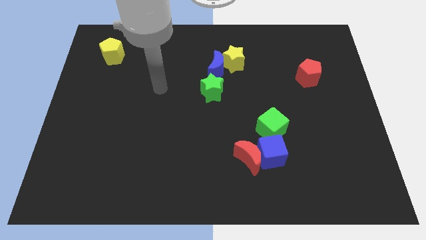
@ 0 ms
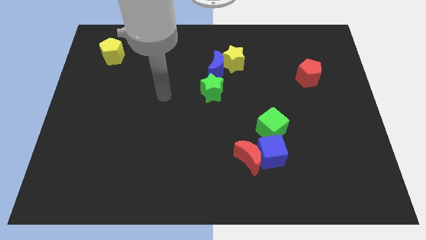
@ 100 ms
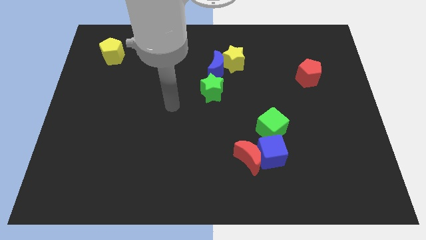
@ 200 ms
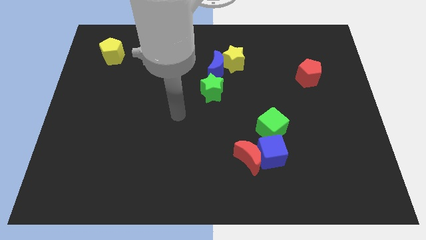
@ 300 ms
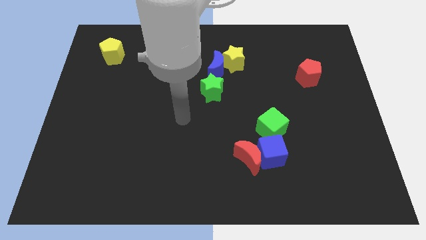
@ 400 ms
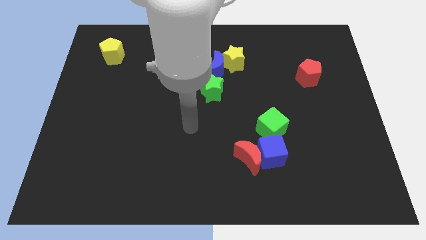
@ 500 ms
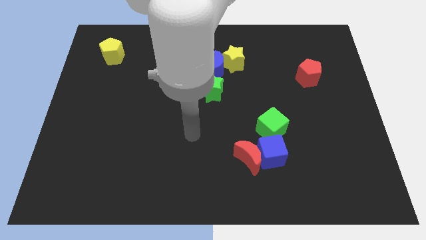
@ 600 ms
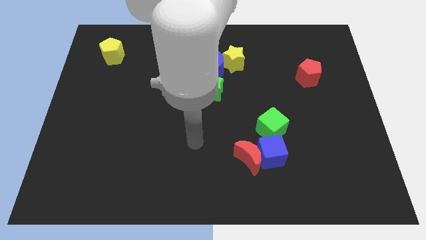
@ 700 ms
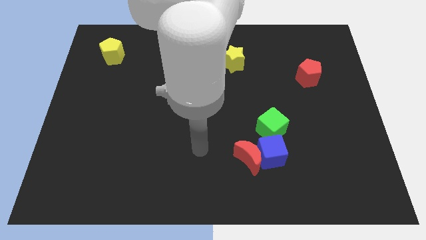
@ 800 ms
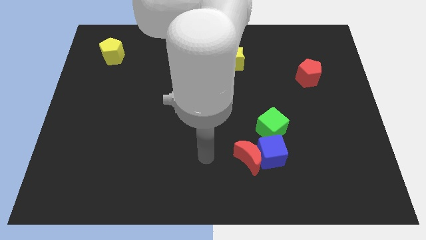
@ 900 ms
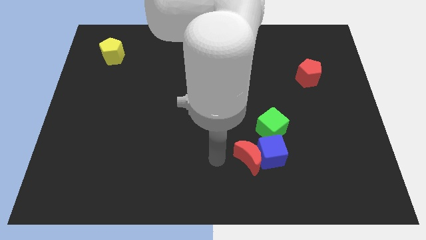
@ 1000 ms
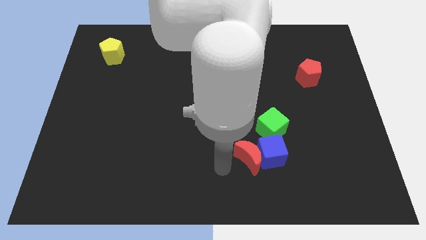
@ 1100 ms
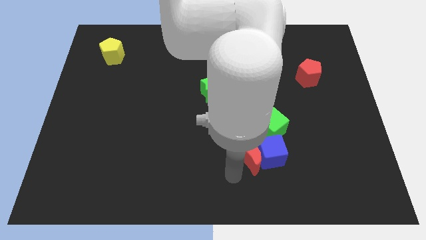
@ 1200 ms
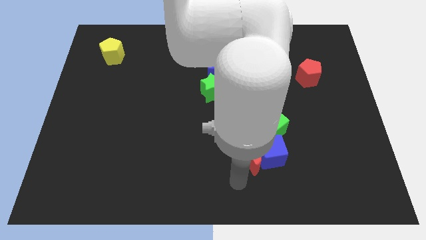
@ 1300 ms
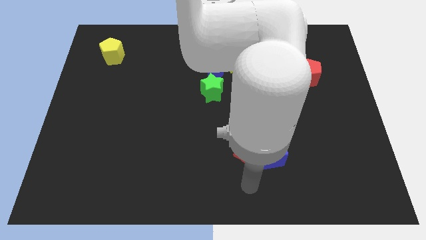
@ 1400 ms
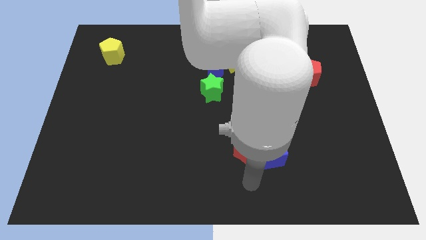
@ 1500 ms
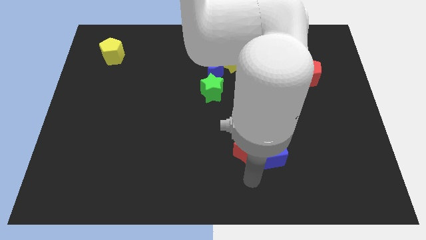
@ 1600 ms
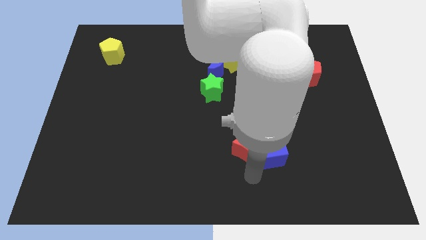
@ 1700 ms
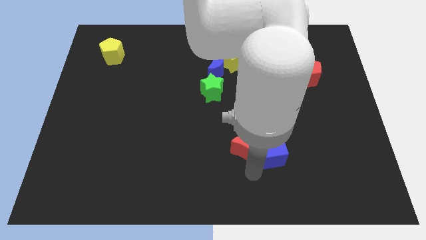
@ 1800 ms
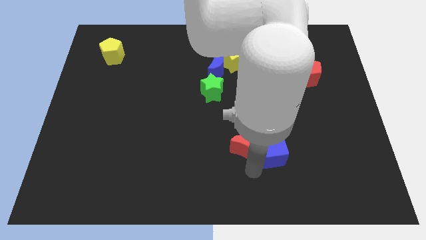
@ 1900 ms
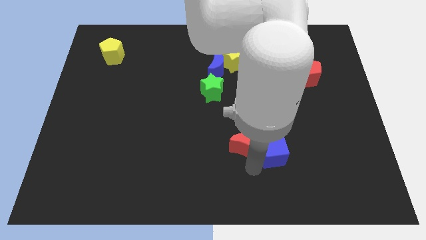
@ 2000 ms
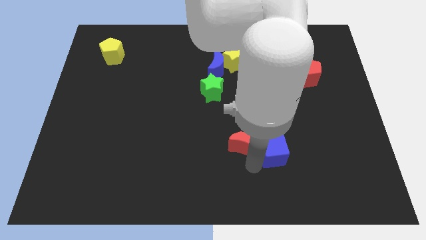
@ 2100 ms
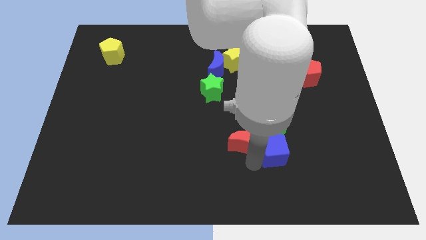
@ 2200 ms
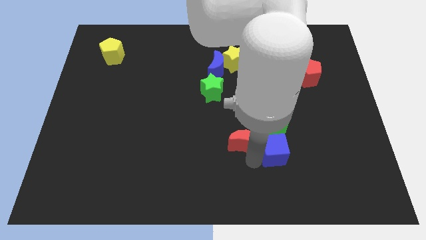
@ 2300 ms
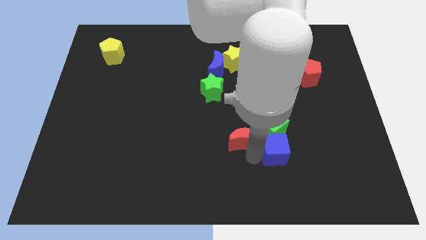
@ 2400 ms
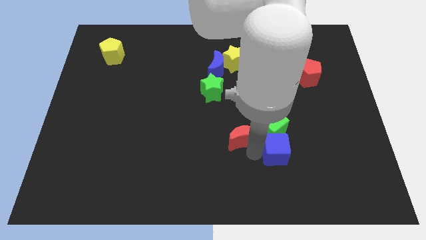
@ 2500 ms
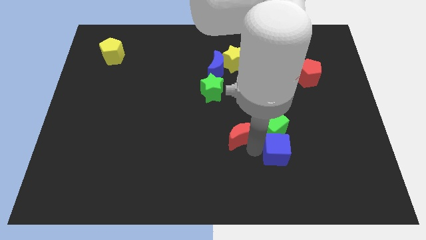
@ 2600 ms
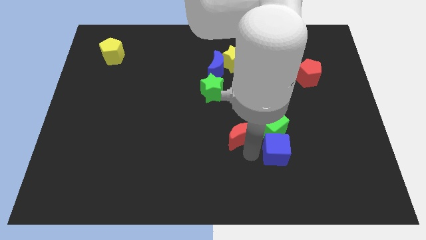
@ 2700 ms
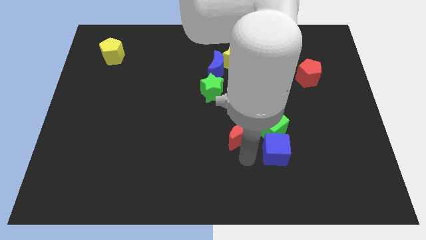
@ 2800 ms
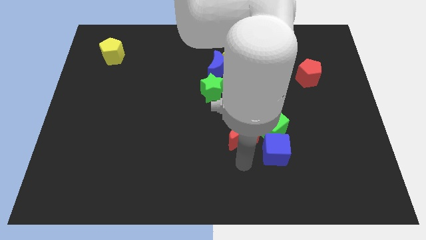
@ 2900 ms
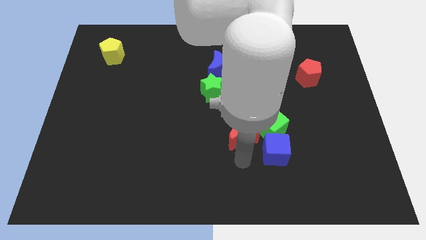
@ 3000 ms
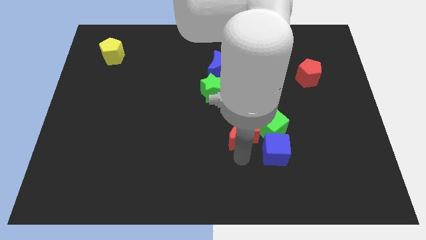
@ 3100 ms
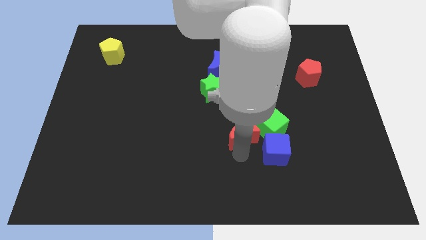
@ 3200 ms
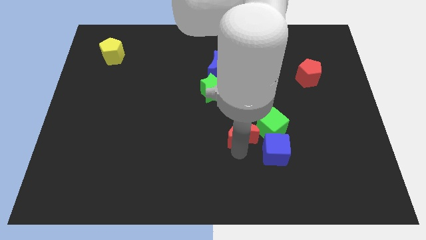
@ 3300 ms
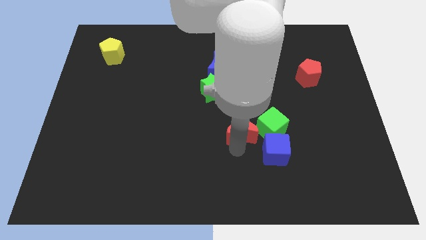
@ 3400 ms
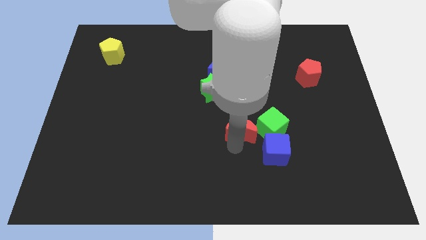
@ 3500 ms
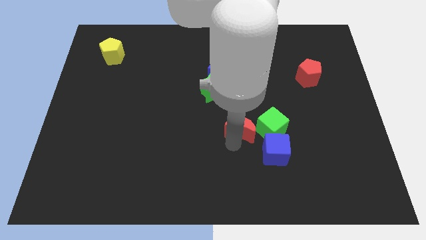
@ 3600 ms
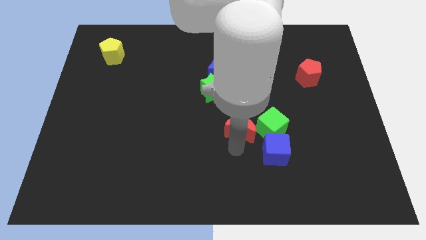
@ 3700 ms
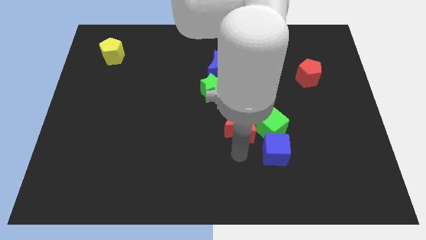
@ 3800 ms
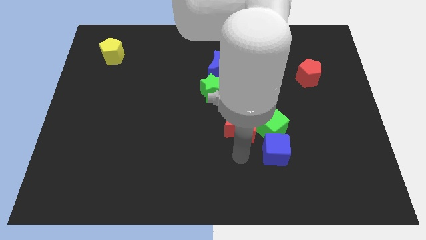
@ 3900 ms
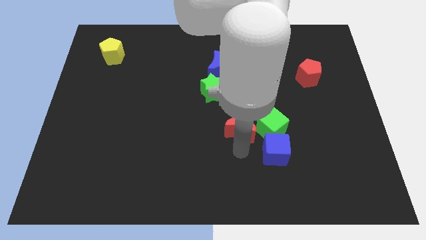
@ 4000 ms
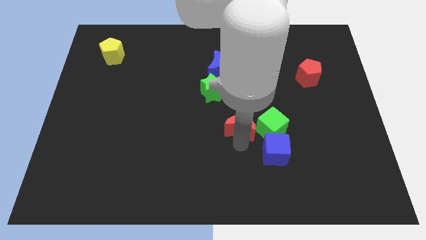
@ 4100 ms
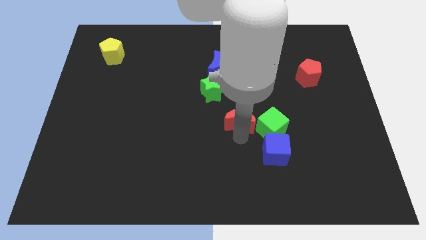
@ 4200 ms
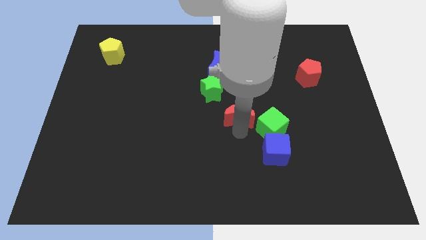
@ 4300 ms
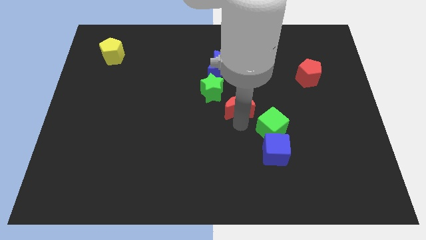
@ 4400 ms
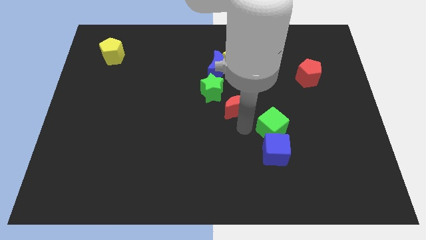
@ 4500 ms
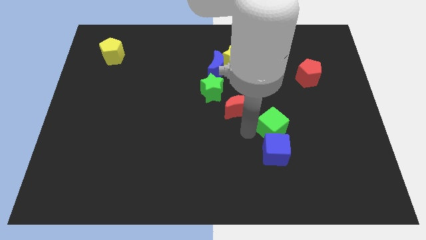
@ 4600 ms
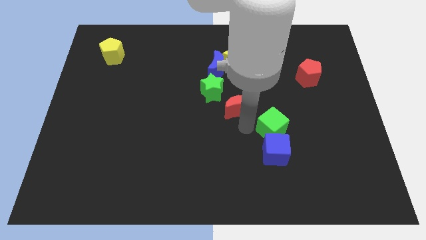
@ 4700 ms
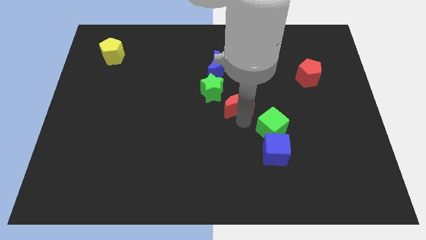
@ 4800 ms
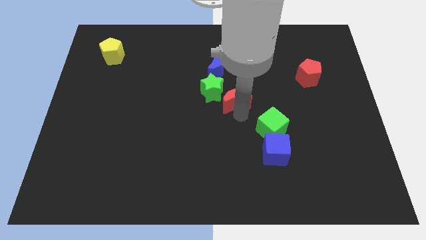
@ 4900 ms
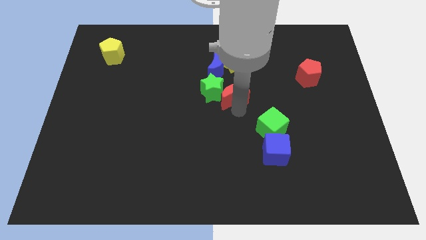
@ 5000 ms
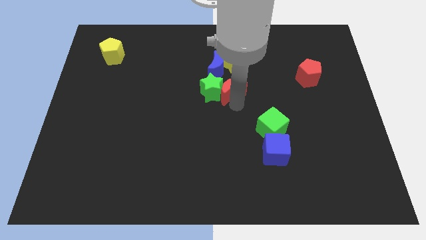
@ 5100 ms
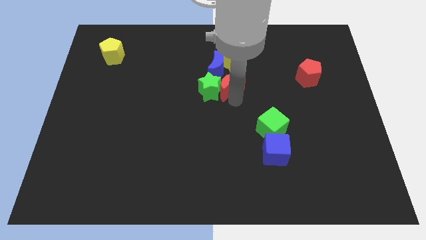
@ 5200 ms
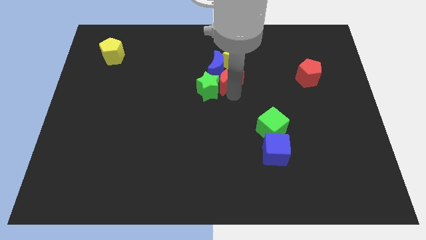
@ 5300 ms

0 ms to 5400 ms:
move the red moon close to the blue moon

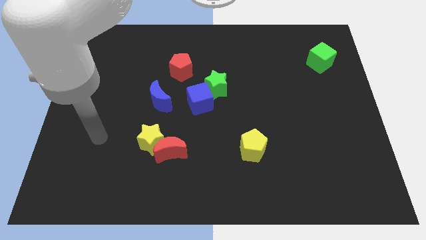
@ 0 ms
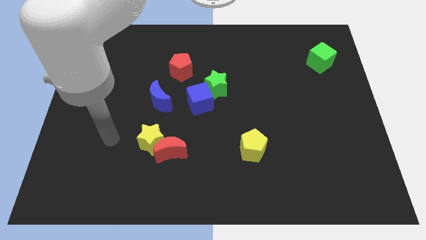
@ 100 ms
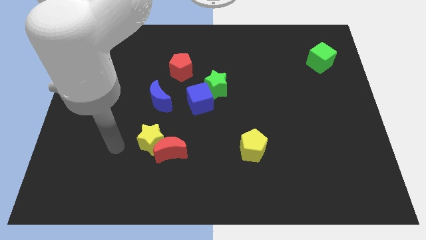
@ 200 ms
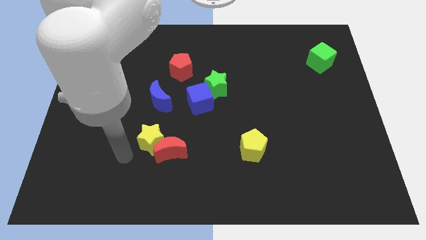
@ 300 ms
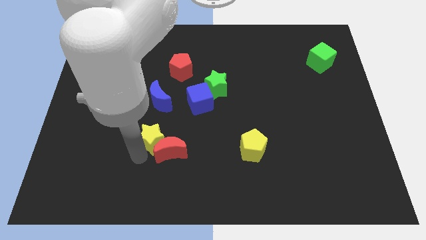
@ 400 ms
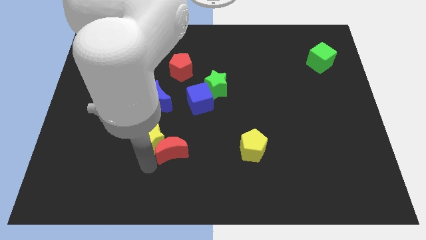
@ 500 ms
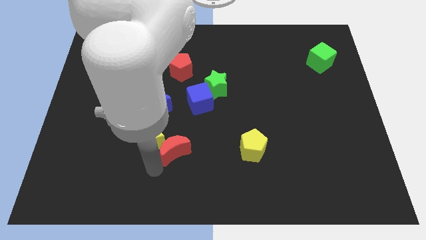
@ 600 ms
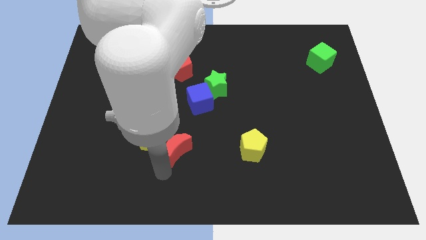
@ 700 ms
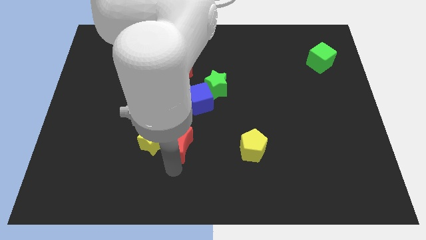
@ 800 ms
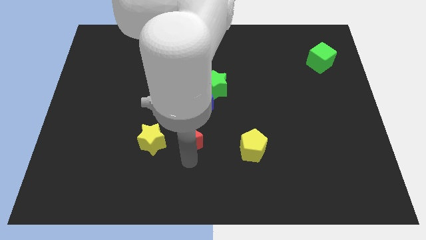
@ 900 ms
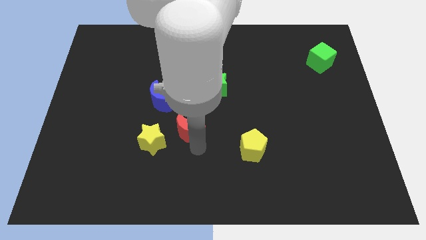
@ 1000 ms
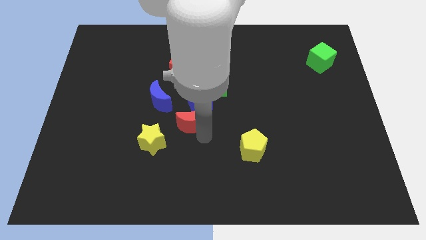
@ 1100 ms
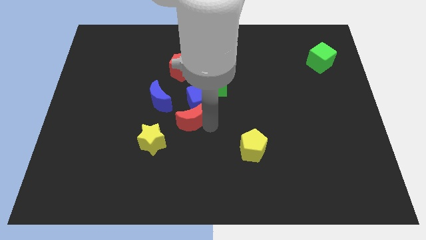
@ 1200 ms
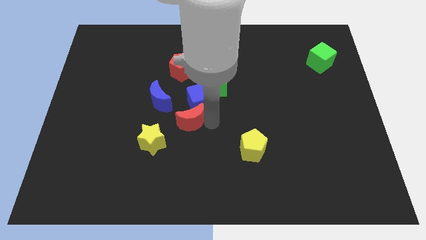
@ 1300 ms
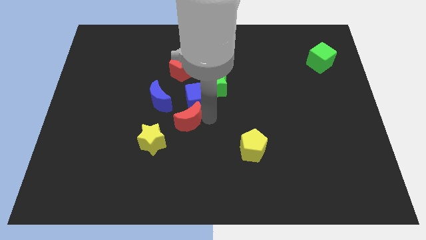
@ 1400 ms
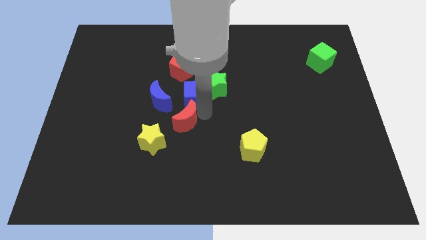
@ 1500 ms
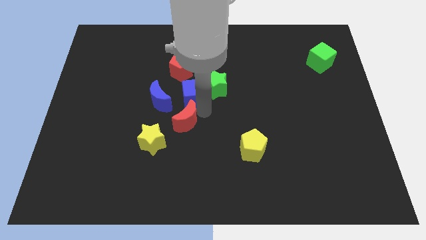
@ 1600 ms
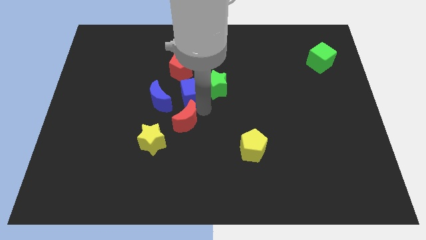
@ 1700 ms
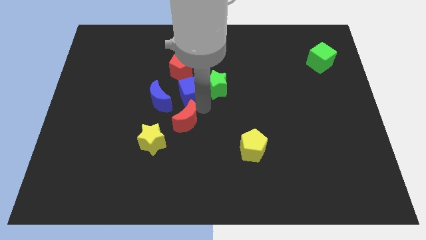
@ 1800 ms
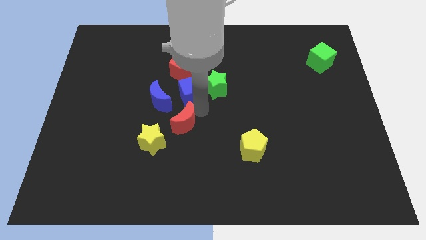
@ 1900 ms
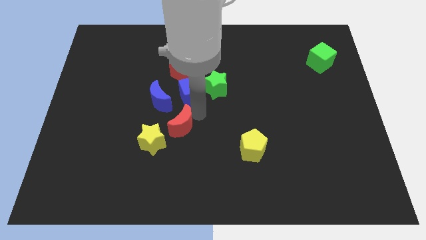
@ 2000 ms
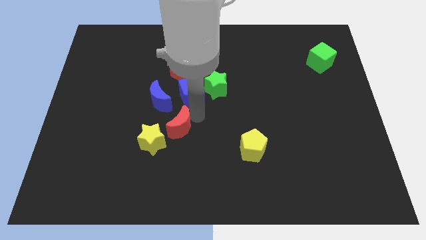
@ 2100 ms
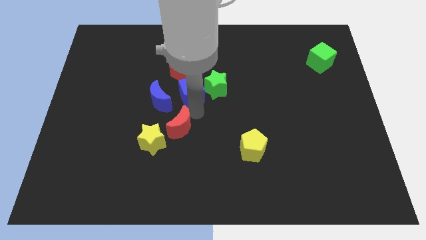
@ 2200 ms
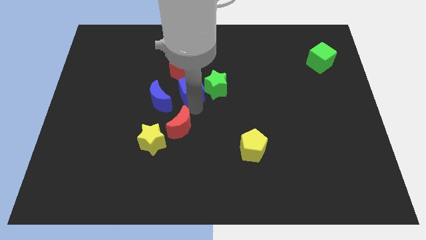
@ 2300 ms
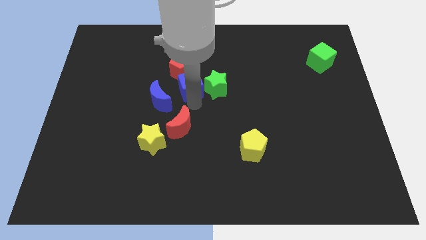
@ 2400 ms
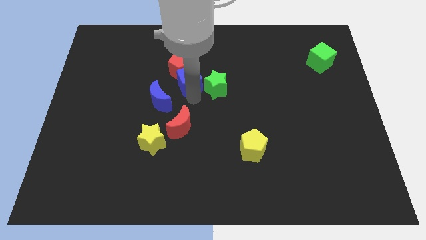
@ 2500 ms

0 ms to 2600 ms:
put the blue cube next to the red pentagon
